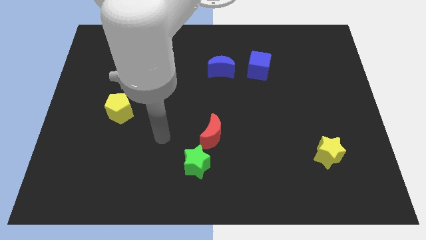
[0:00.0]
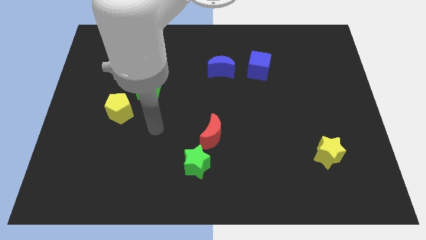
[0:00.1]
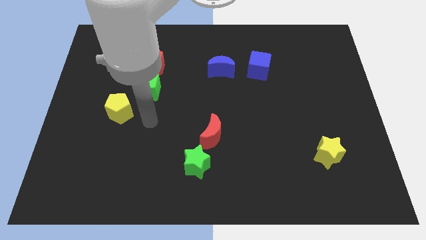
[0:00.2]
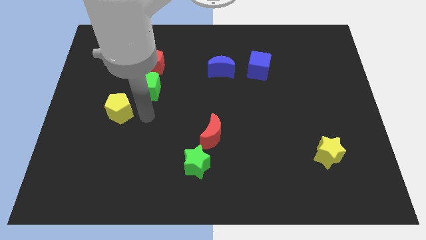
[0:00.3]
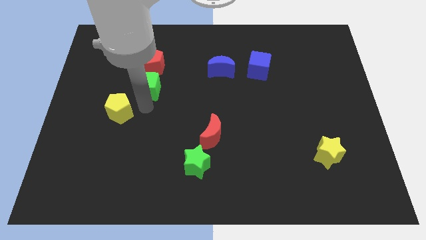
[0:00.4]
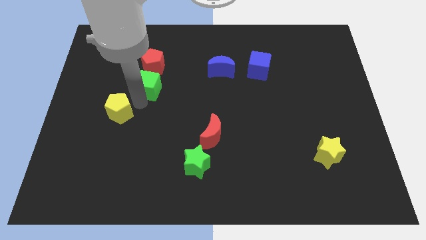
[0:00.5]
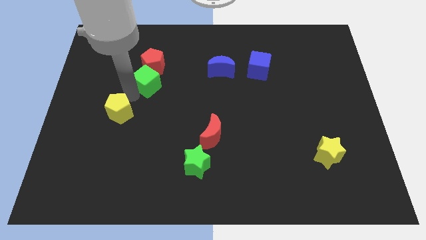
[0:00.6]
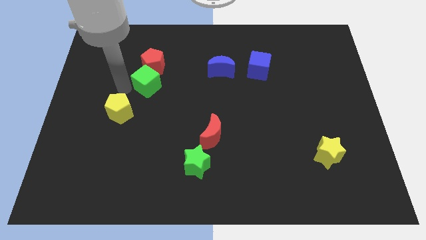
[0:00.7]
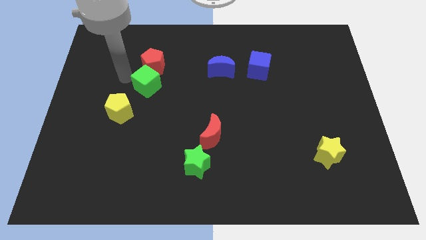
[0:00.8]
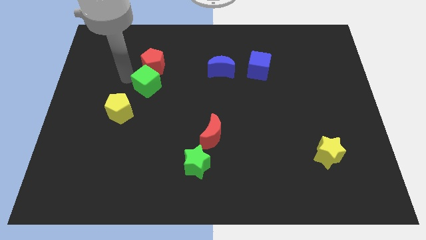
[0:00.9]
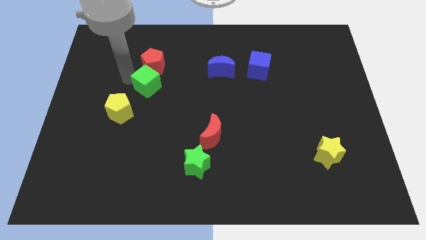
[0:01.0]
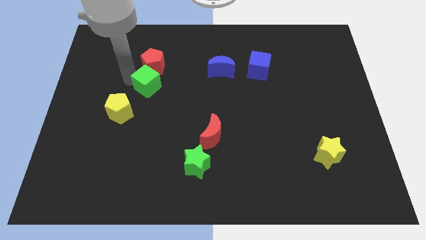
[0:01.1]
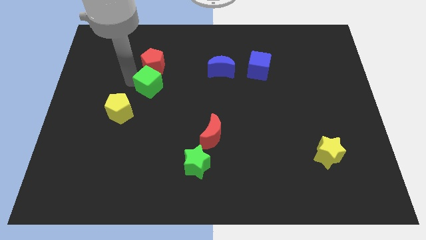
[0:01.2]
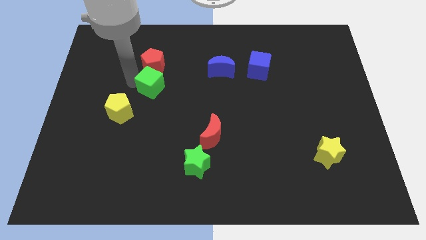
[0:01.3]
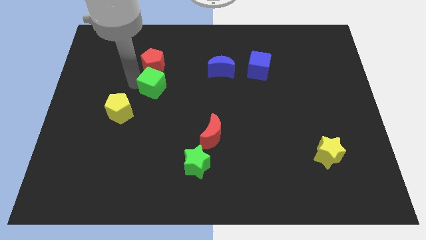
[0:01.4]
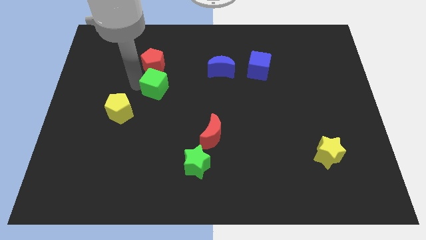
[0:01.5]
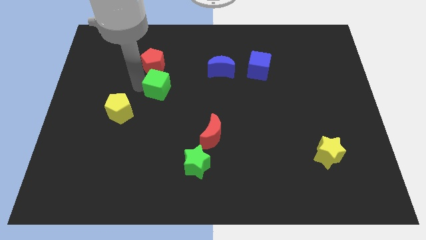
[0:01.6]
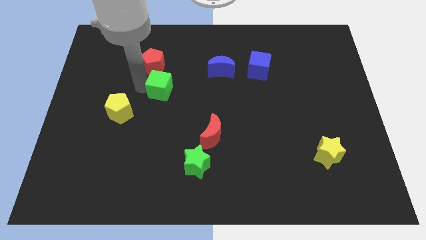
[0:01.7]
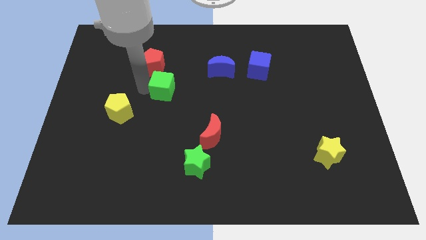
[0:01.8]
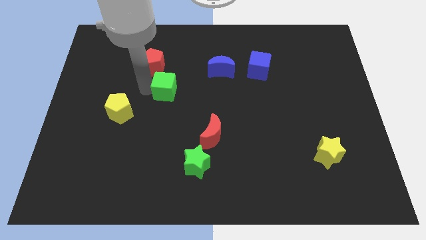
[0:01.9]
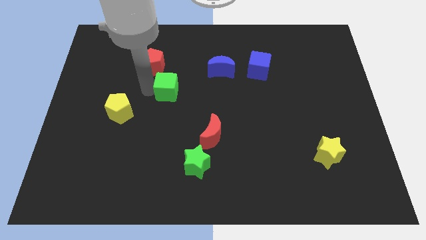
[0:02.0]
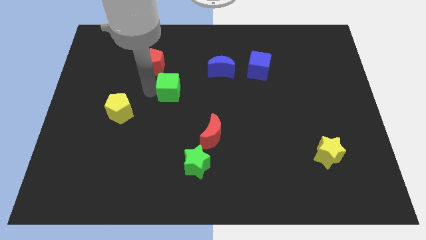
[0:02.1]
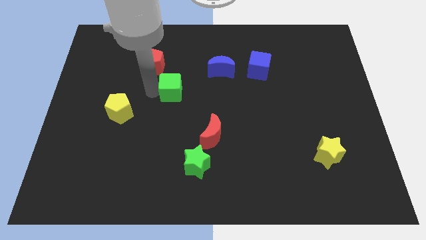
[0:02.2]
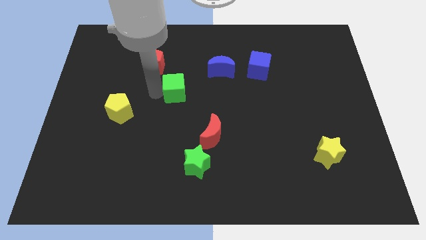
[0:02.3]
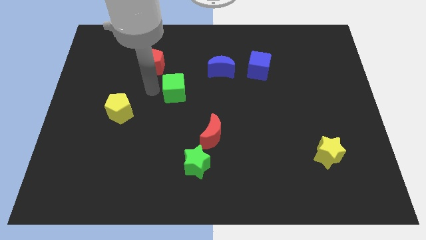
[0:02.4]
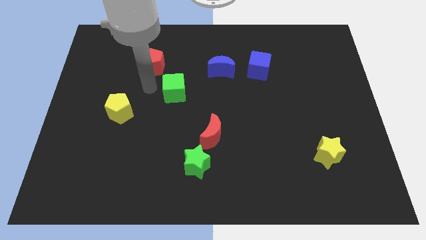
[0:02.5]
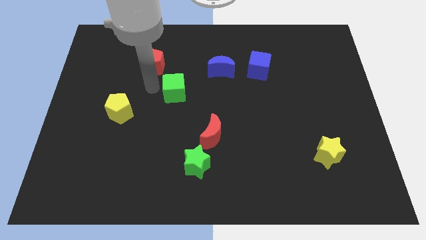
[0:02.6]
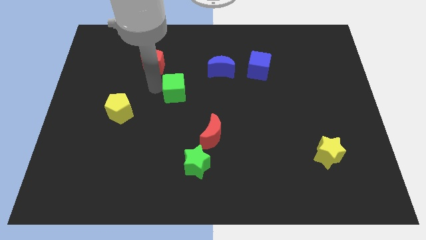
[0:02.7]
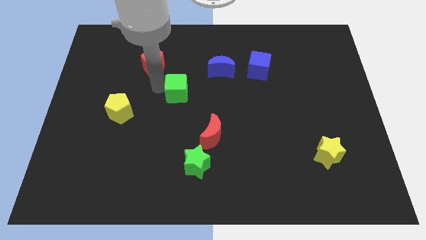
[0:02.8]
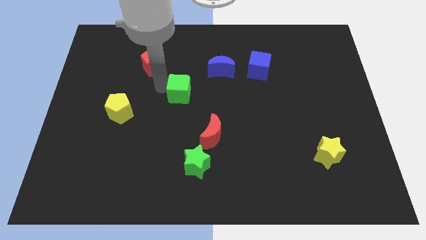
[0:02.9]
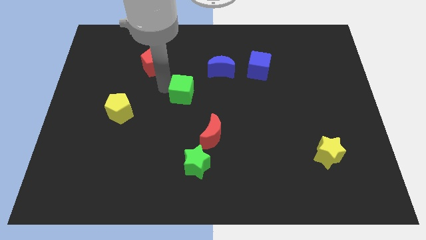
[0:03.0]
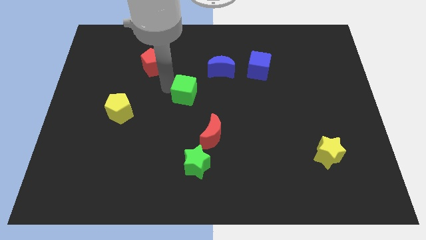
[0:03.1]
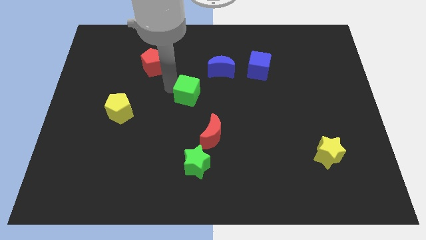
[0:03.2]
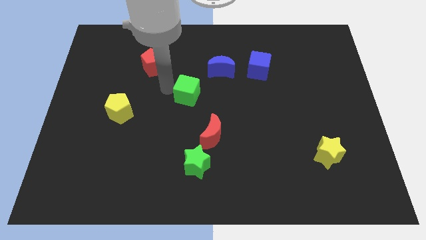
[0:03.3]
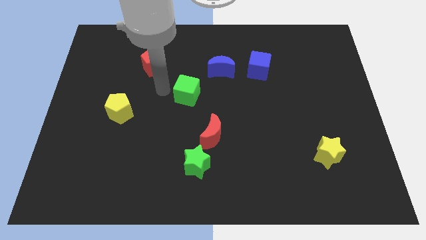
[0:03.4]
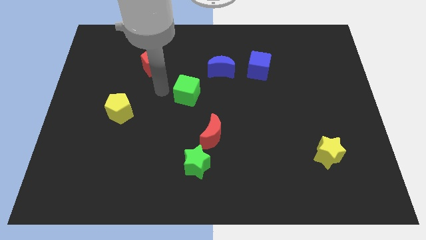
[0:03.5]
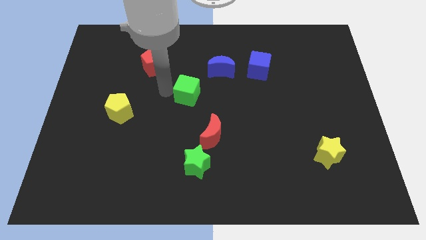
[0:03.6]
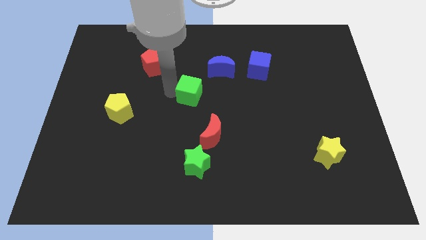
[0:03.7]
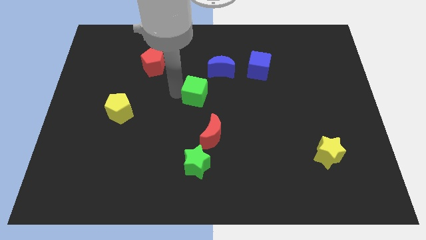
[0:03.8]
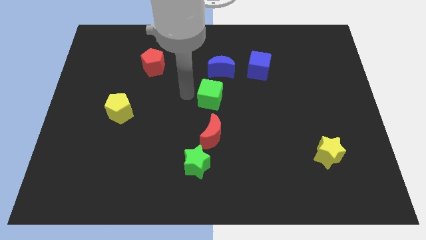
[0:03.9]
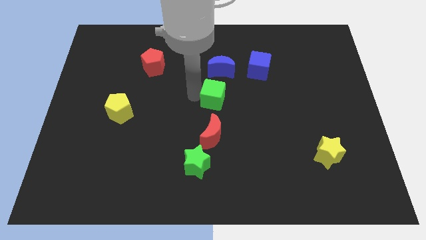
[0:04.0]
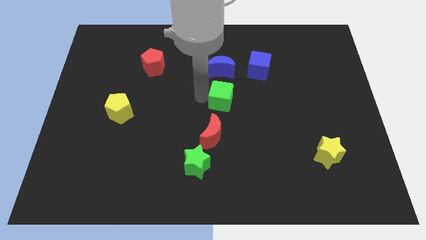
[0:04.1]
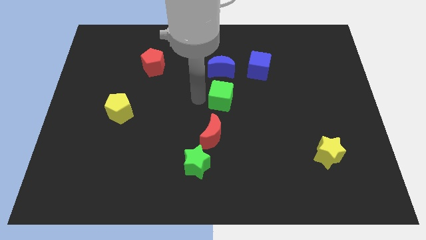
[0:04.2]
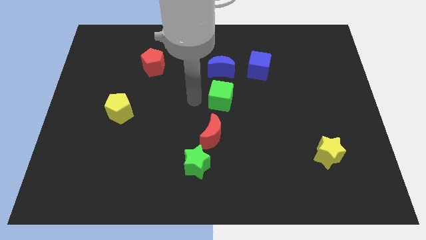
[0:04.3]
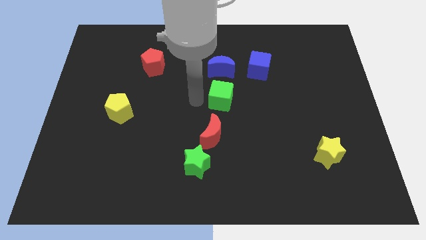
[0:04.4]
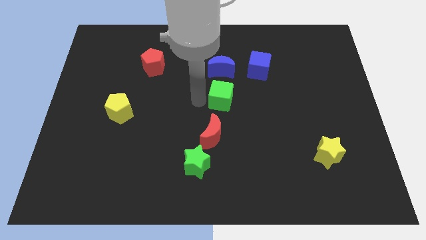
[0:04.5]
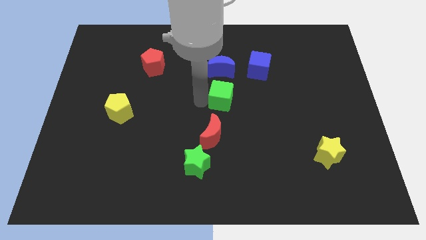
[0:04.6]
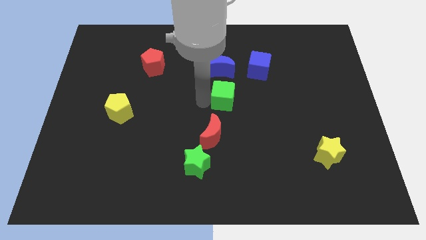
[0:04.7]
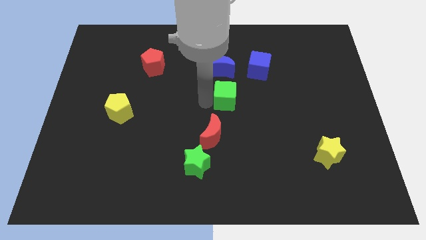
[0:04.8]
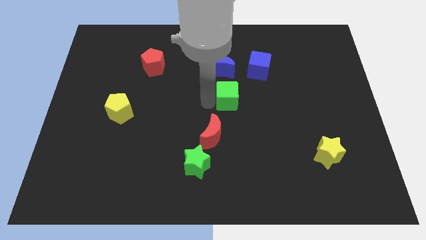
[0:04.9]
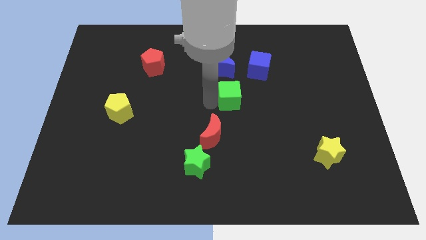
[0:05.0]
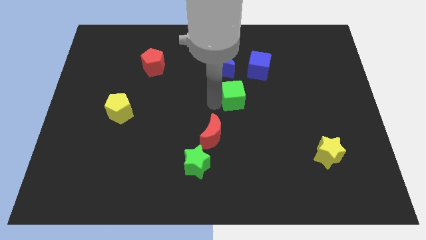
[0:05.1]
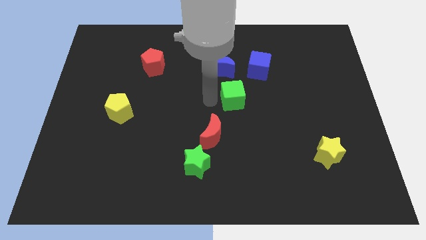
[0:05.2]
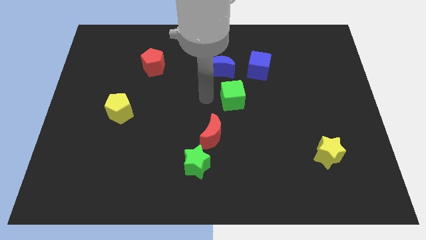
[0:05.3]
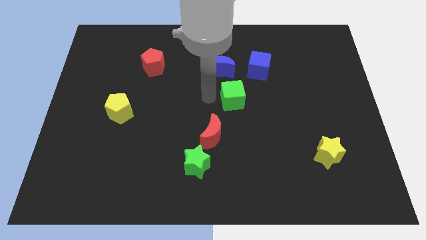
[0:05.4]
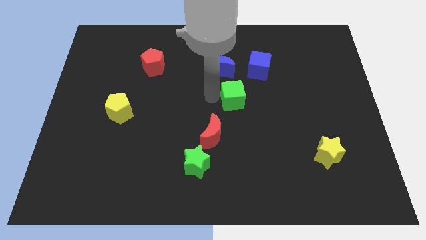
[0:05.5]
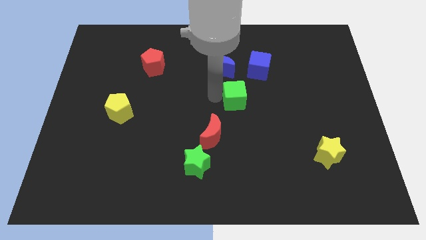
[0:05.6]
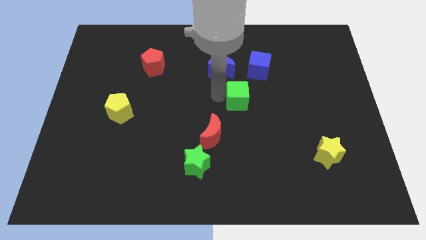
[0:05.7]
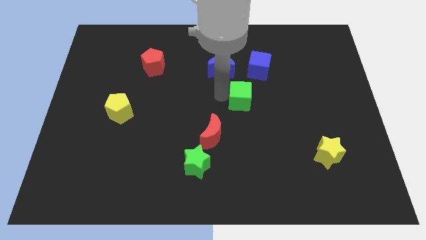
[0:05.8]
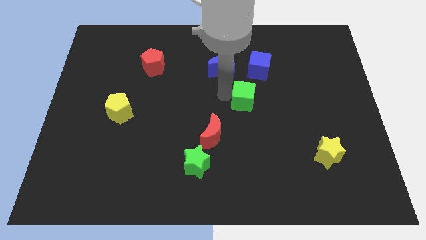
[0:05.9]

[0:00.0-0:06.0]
move the green cube to the bottom of the blue cube

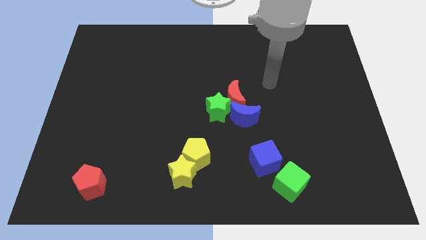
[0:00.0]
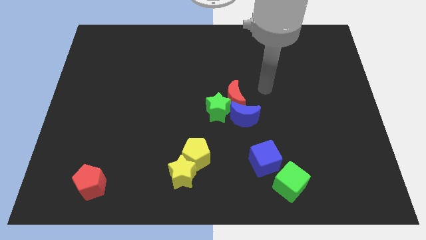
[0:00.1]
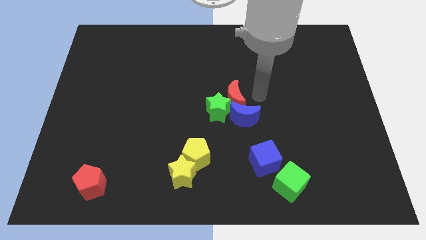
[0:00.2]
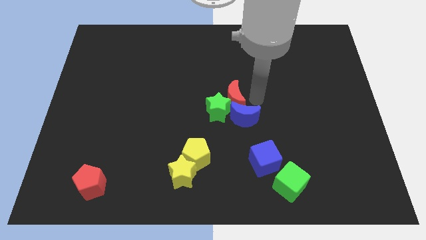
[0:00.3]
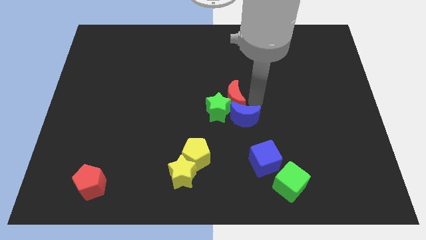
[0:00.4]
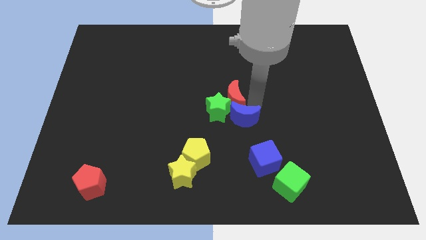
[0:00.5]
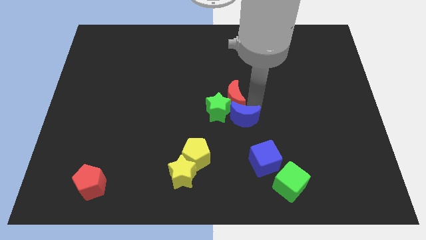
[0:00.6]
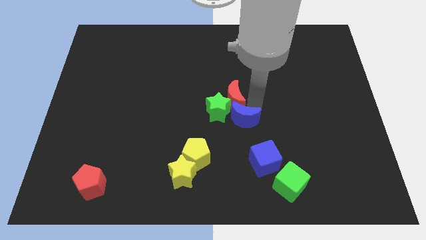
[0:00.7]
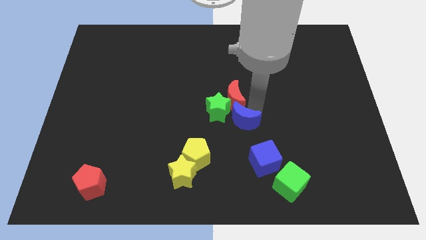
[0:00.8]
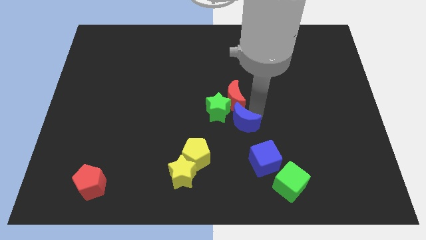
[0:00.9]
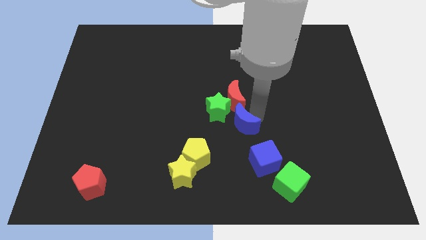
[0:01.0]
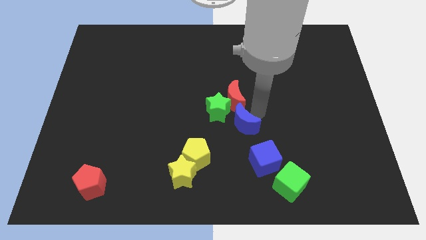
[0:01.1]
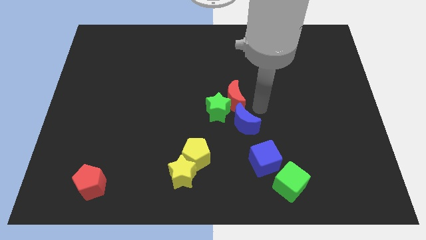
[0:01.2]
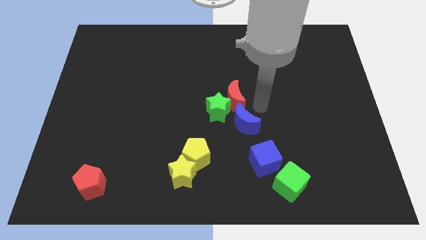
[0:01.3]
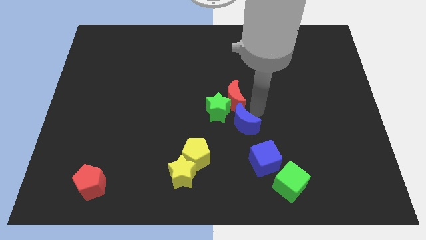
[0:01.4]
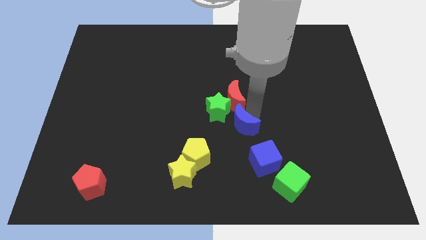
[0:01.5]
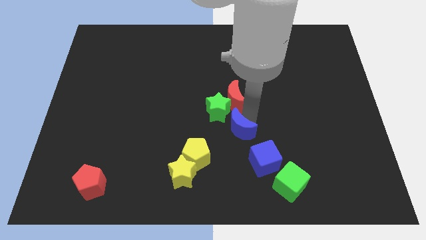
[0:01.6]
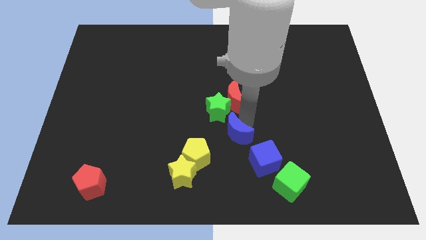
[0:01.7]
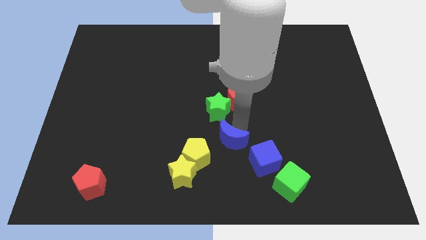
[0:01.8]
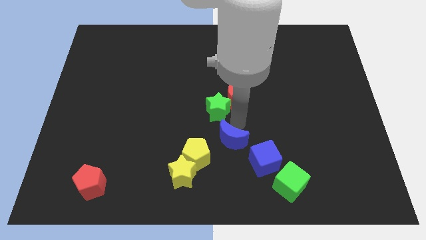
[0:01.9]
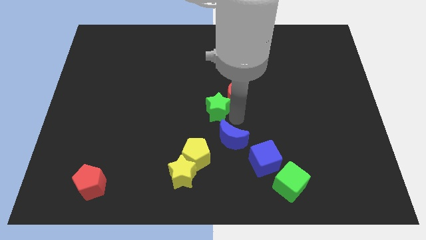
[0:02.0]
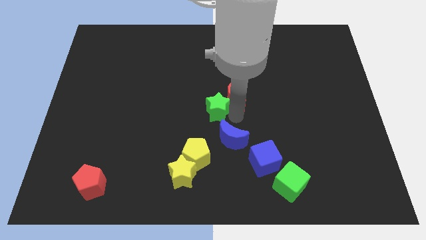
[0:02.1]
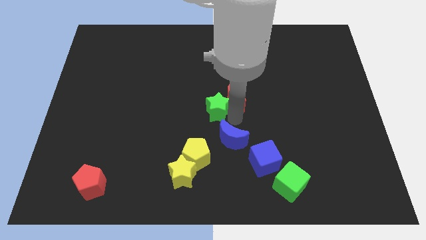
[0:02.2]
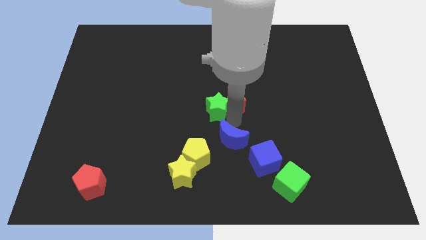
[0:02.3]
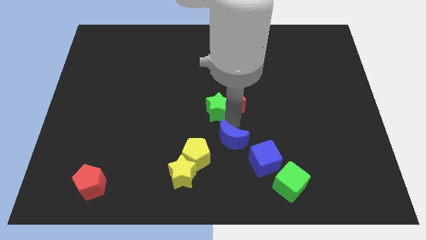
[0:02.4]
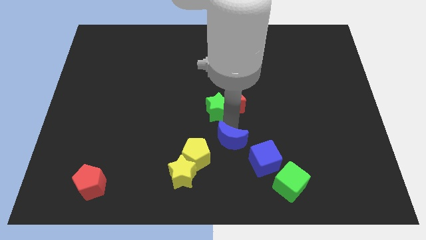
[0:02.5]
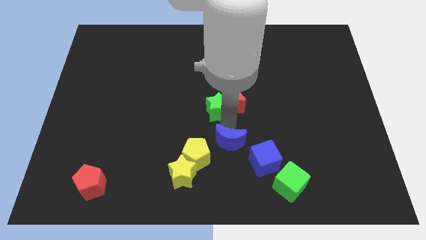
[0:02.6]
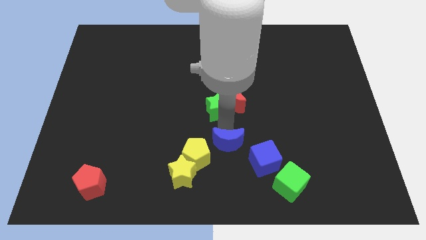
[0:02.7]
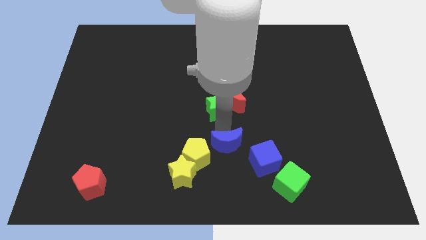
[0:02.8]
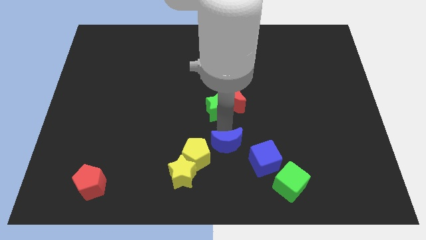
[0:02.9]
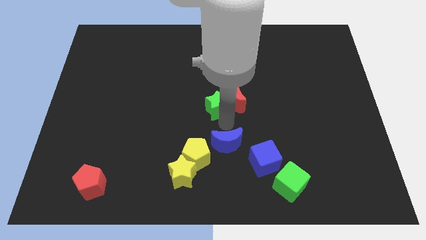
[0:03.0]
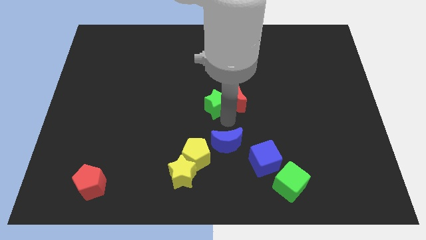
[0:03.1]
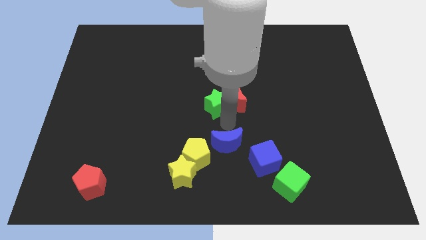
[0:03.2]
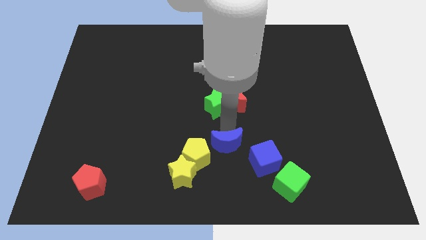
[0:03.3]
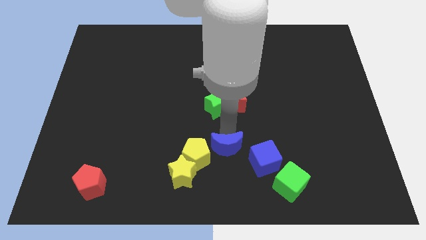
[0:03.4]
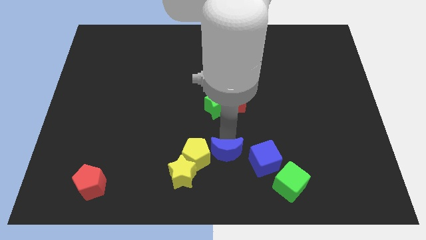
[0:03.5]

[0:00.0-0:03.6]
slide the blue moon diagonally down and to the right of the yellow pentagon
